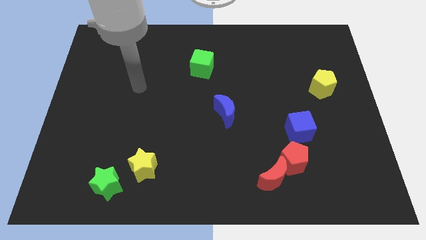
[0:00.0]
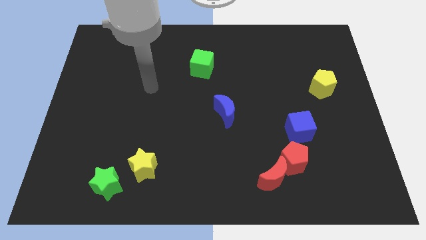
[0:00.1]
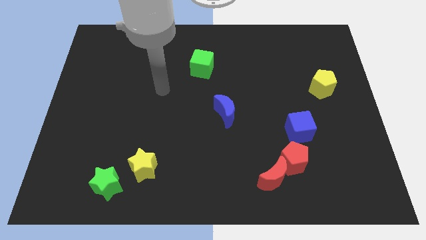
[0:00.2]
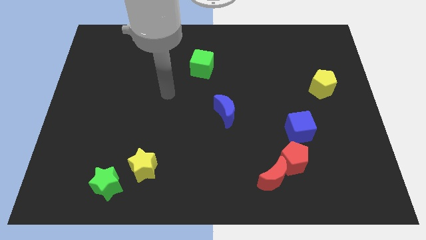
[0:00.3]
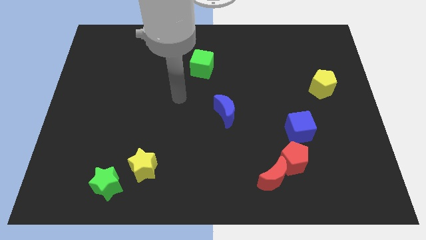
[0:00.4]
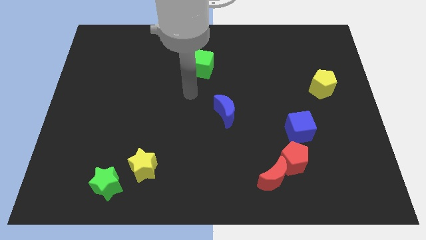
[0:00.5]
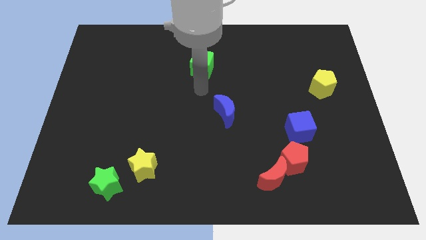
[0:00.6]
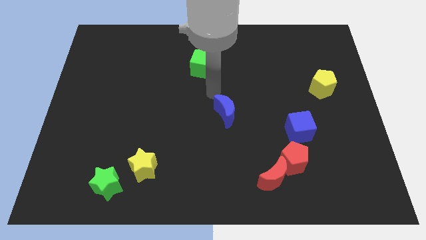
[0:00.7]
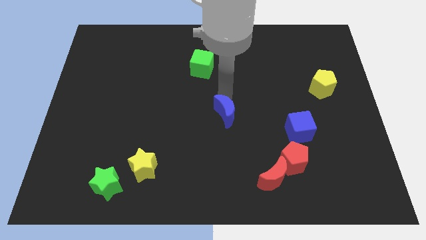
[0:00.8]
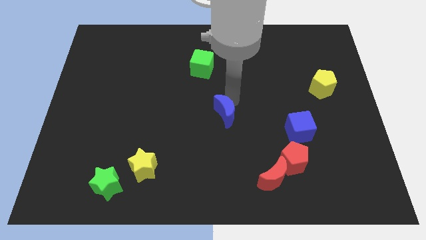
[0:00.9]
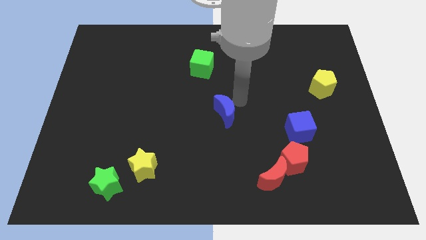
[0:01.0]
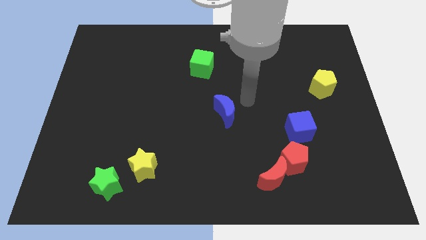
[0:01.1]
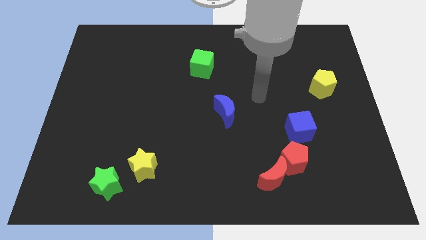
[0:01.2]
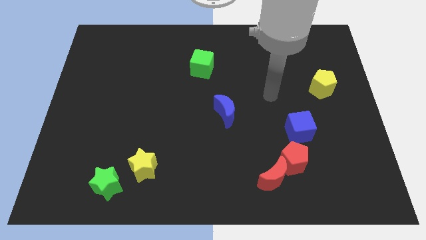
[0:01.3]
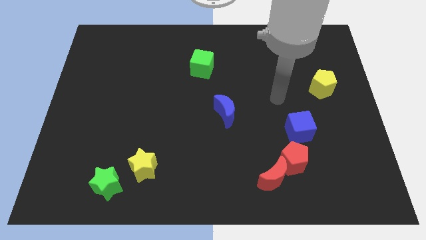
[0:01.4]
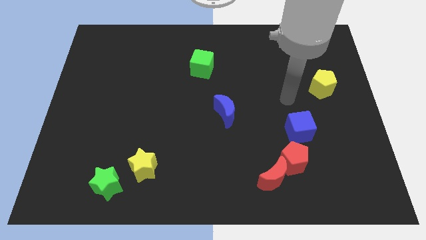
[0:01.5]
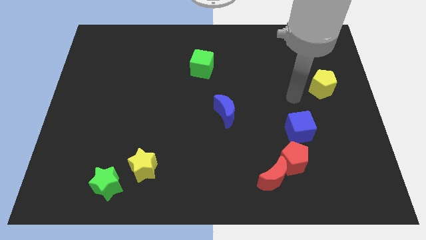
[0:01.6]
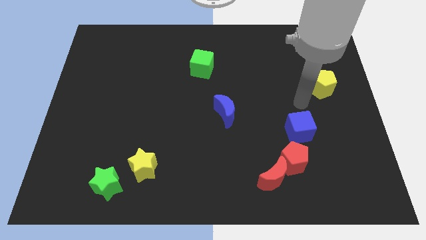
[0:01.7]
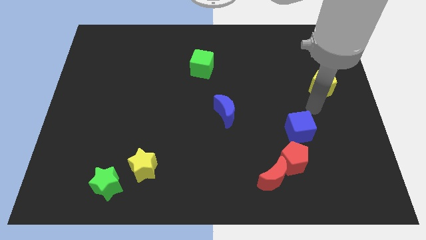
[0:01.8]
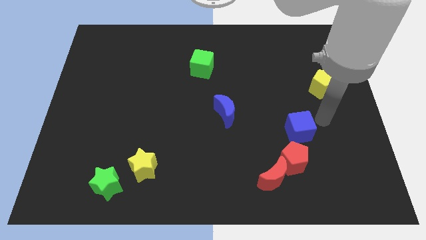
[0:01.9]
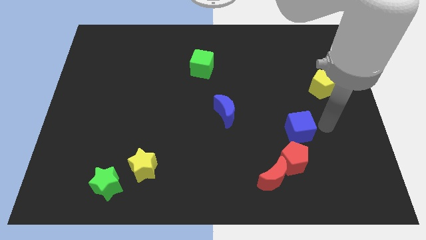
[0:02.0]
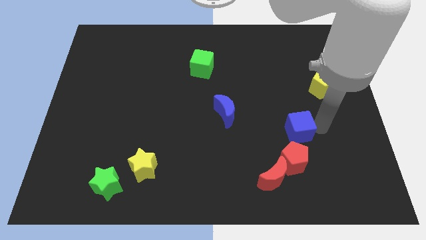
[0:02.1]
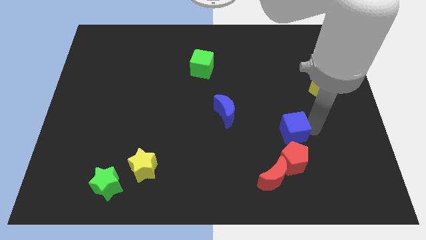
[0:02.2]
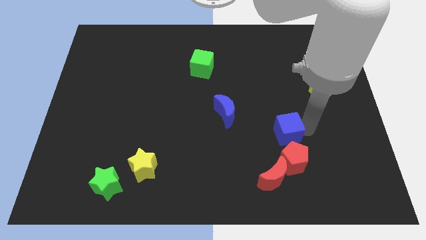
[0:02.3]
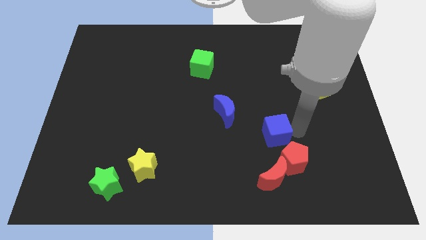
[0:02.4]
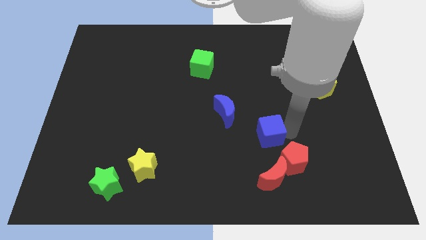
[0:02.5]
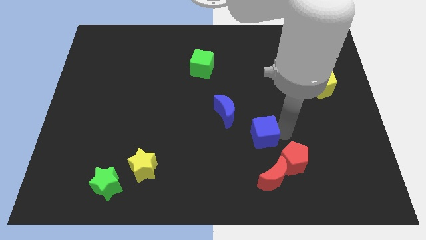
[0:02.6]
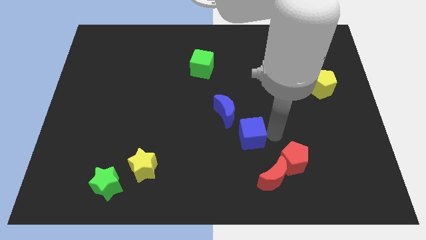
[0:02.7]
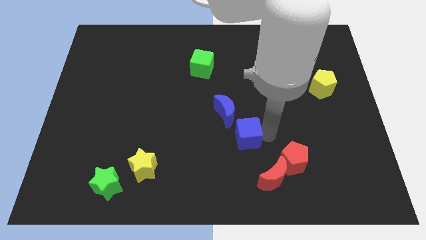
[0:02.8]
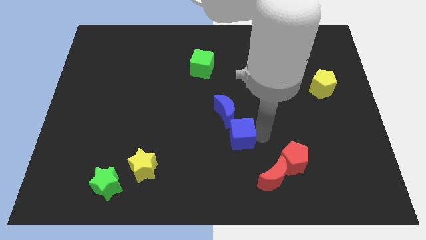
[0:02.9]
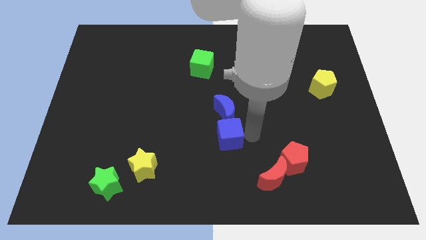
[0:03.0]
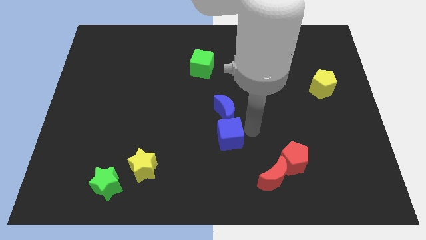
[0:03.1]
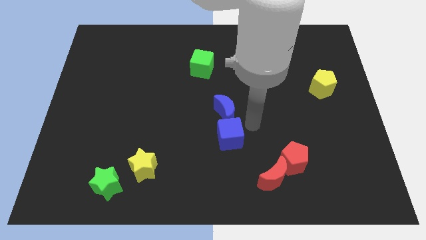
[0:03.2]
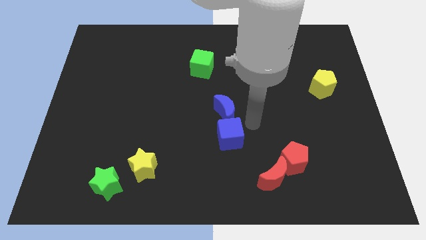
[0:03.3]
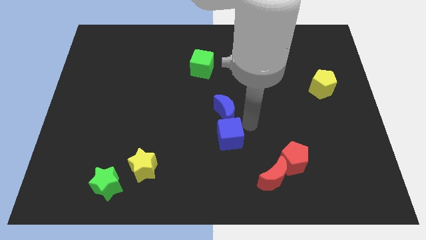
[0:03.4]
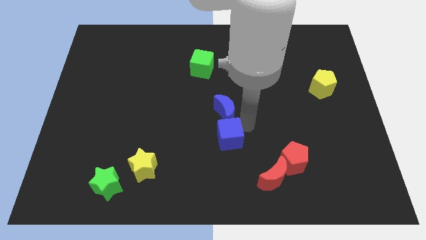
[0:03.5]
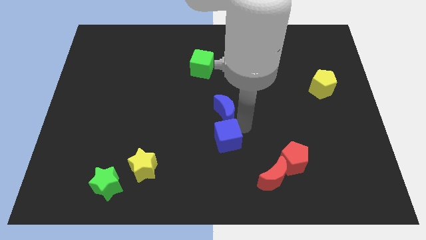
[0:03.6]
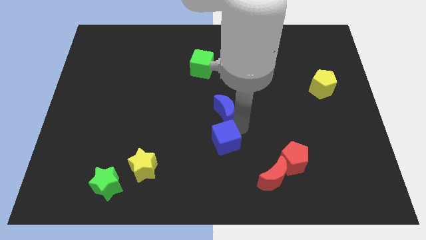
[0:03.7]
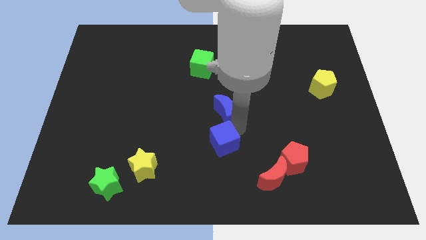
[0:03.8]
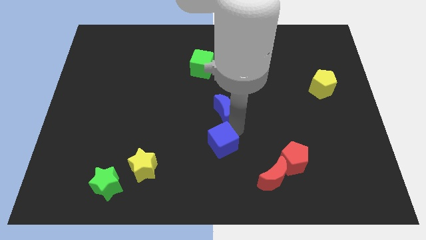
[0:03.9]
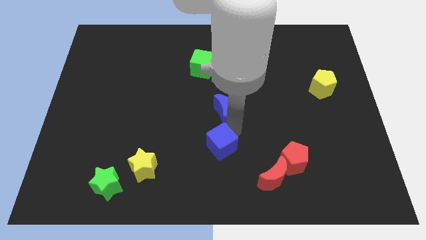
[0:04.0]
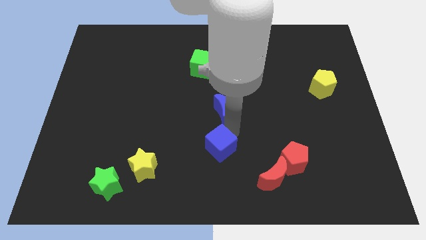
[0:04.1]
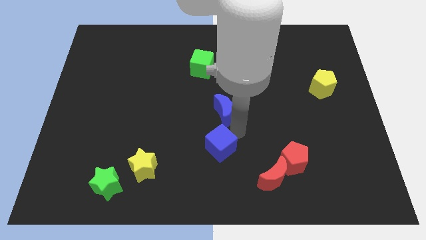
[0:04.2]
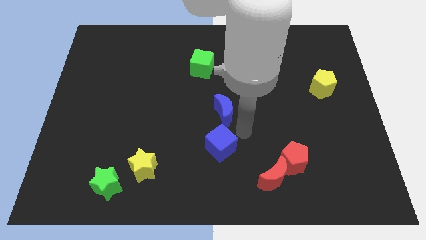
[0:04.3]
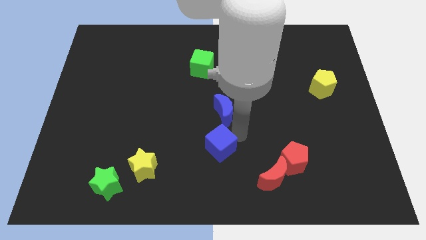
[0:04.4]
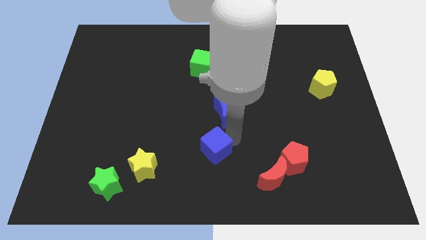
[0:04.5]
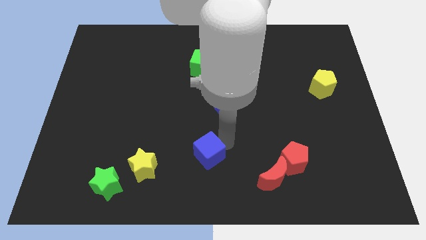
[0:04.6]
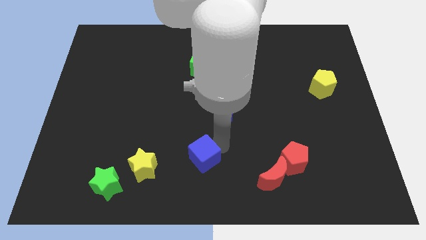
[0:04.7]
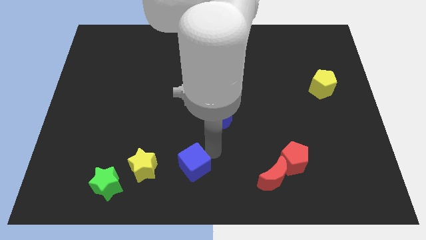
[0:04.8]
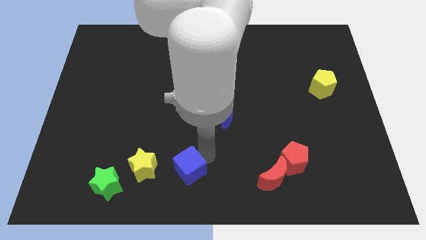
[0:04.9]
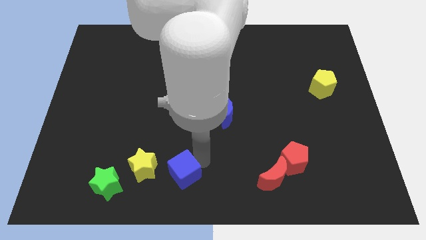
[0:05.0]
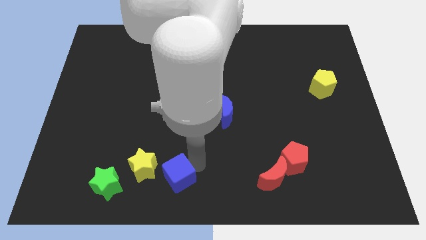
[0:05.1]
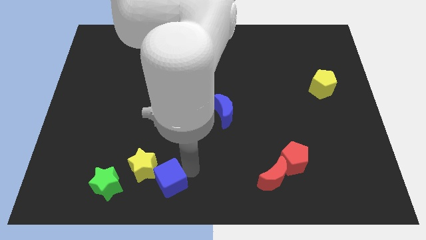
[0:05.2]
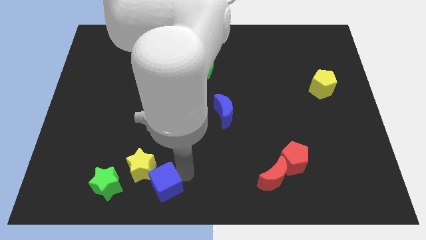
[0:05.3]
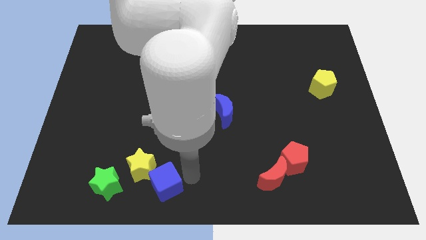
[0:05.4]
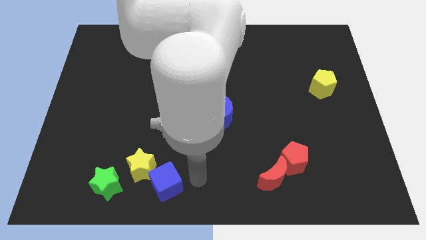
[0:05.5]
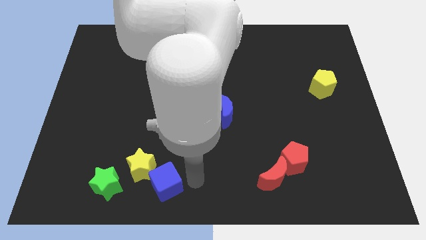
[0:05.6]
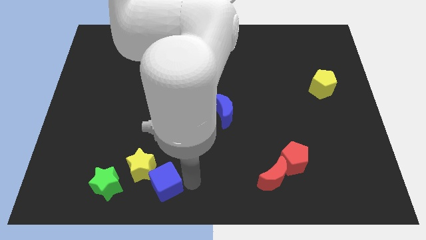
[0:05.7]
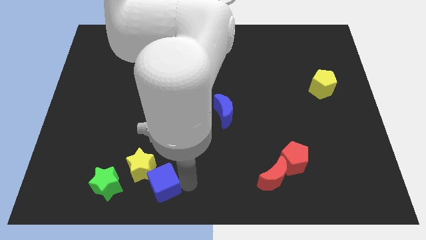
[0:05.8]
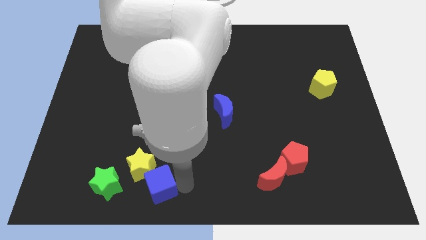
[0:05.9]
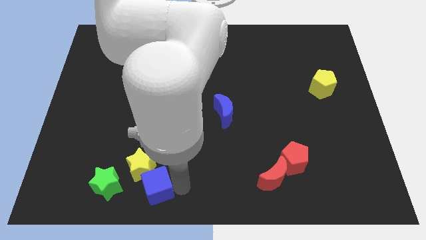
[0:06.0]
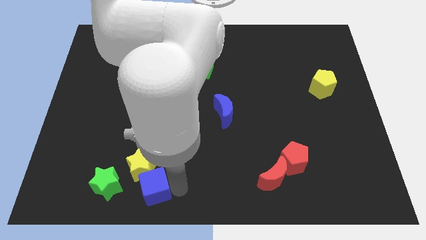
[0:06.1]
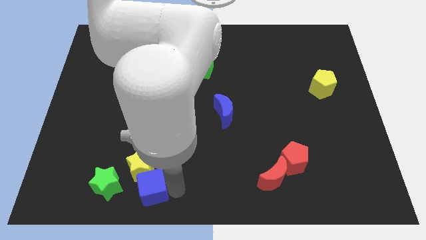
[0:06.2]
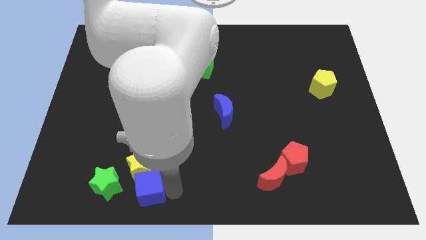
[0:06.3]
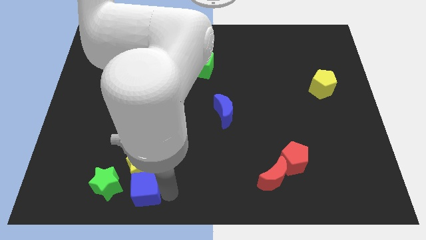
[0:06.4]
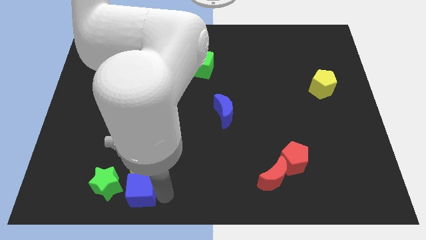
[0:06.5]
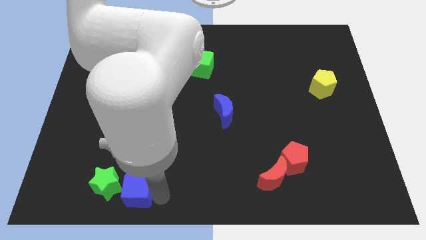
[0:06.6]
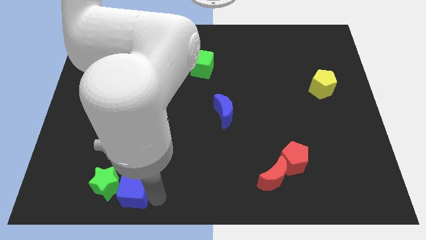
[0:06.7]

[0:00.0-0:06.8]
move the blue cube to the green star

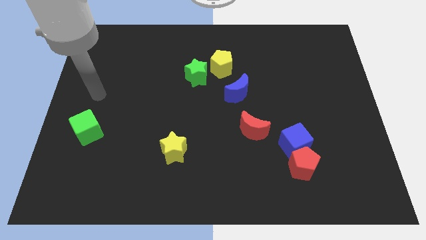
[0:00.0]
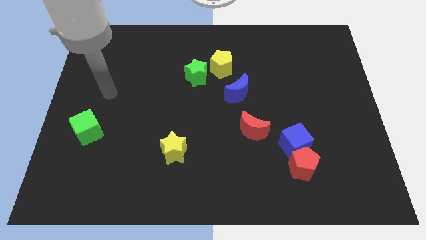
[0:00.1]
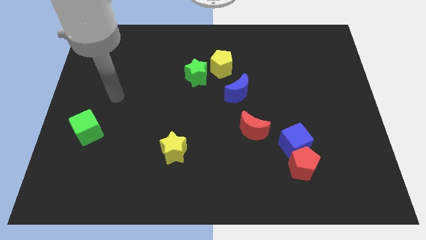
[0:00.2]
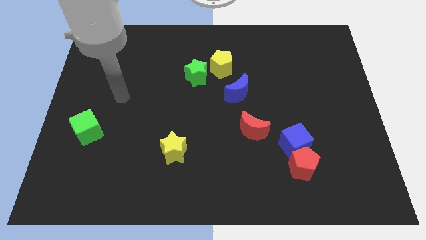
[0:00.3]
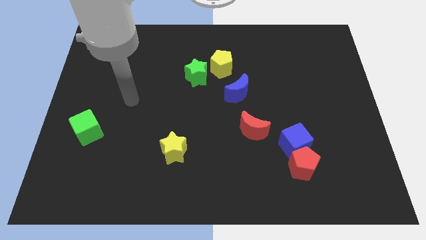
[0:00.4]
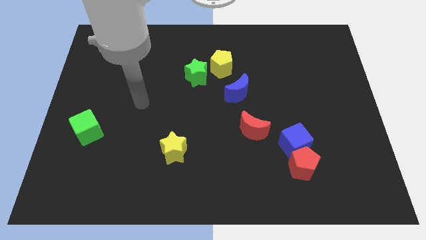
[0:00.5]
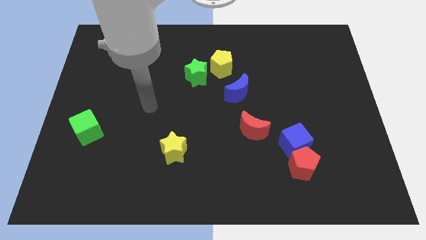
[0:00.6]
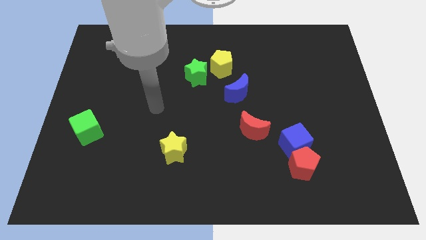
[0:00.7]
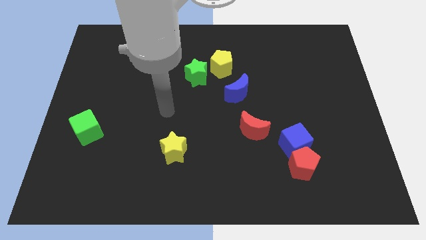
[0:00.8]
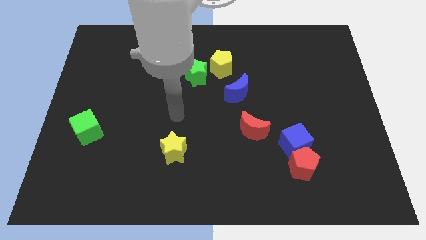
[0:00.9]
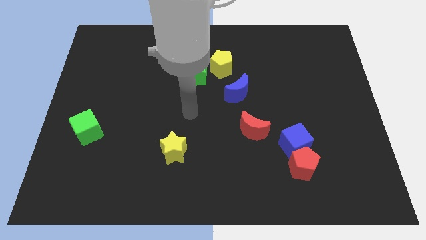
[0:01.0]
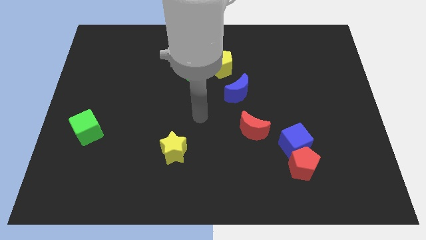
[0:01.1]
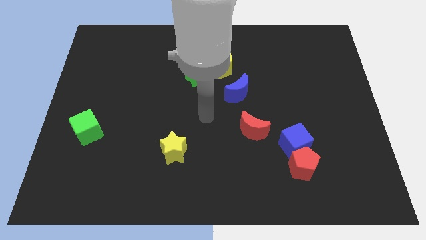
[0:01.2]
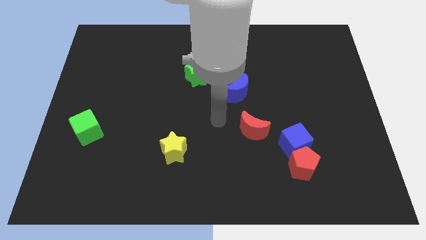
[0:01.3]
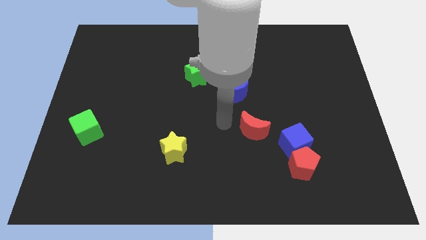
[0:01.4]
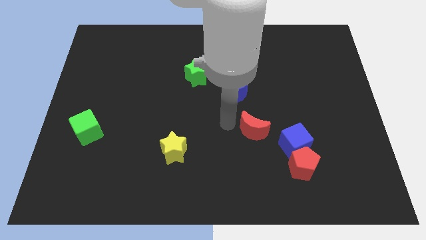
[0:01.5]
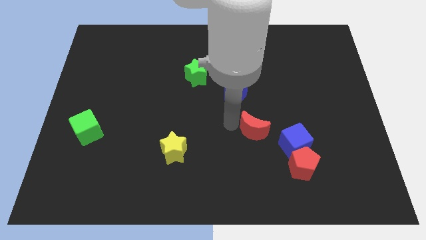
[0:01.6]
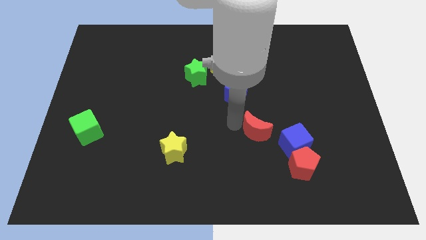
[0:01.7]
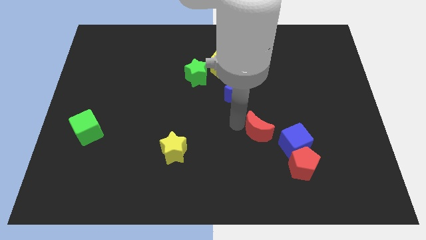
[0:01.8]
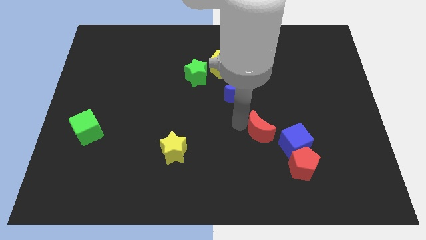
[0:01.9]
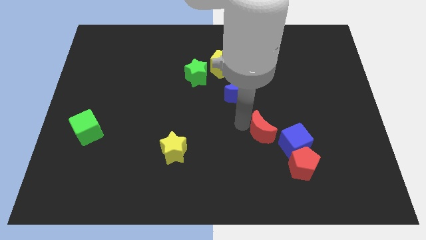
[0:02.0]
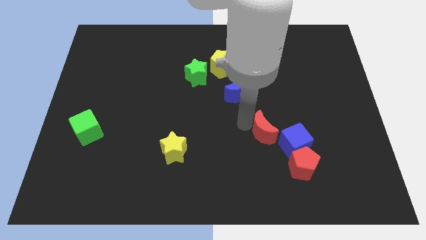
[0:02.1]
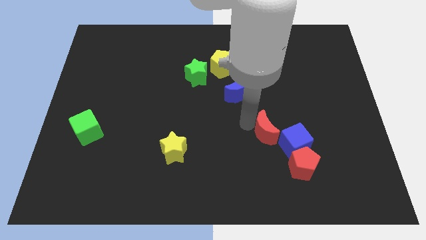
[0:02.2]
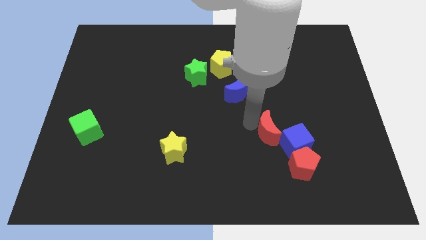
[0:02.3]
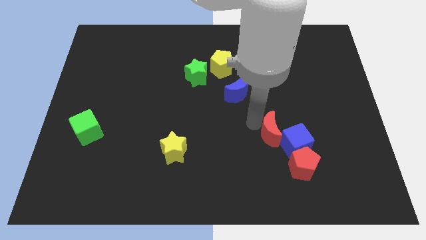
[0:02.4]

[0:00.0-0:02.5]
move the red moon close to the blue cube
